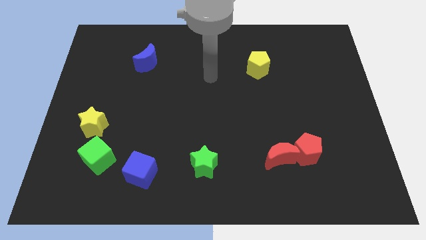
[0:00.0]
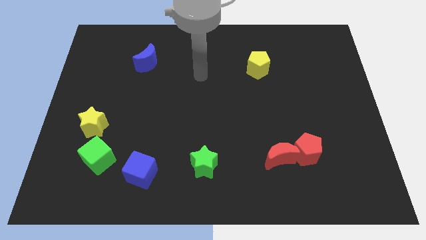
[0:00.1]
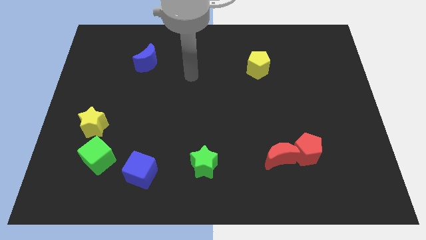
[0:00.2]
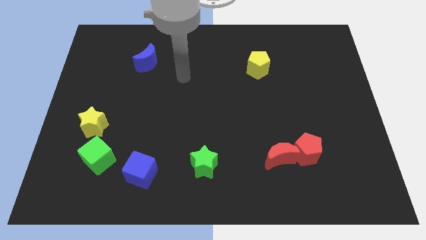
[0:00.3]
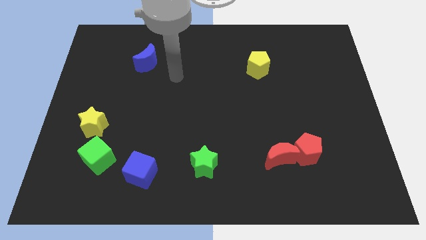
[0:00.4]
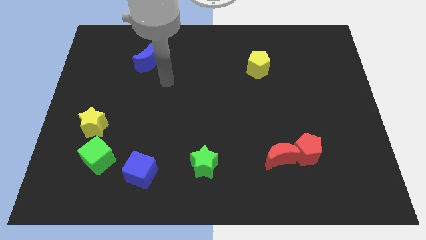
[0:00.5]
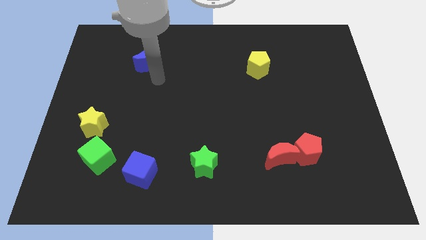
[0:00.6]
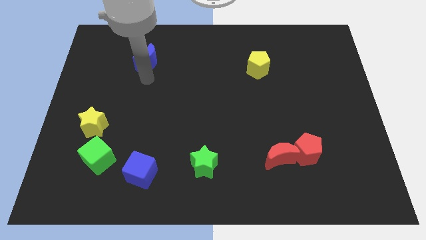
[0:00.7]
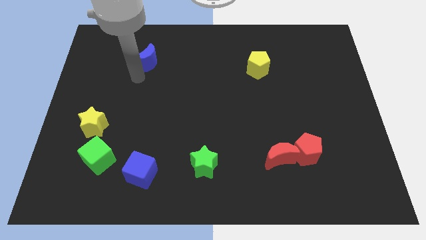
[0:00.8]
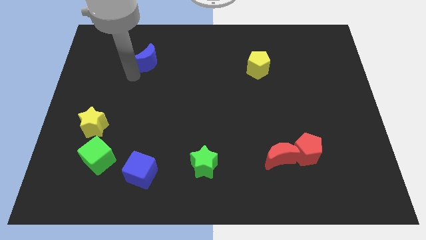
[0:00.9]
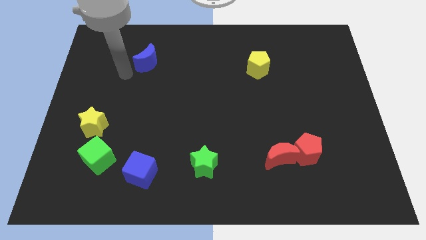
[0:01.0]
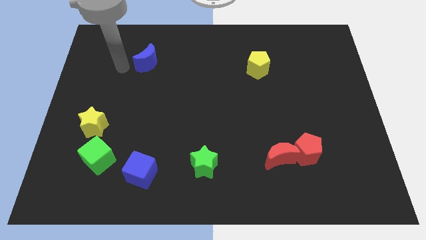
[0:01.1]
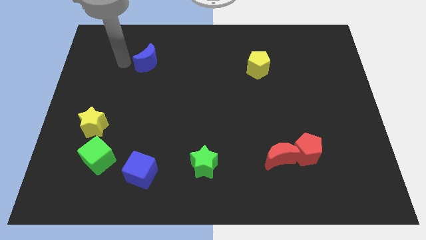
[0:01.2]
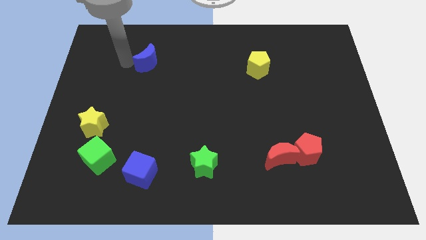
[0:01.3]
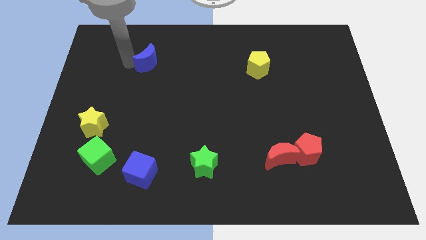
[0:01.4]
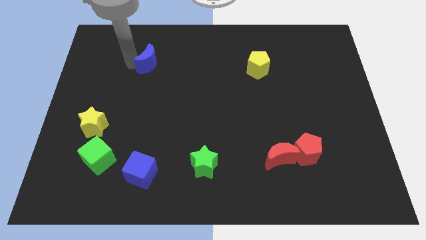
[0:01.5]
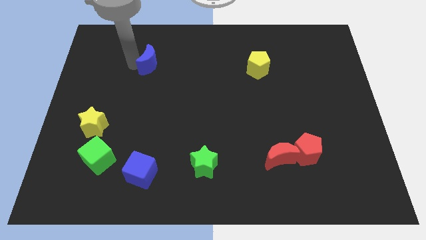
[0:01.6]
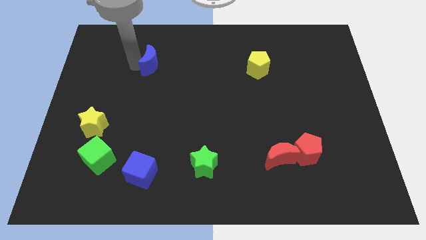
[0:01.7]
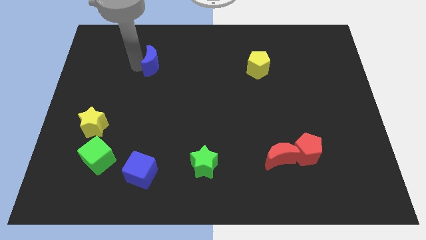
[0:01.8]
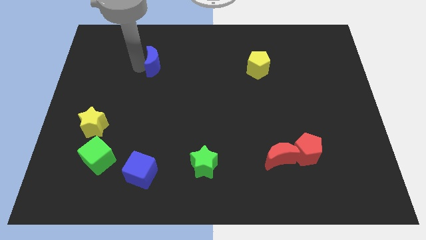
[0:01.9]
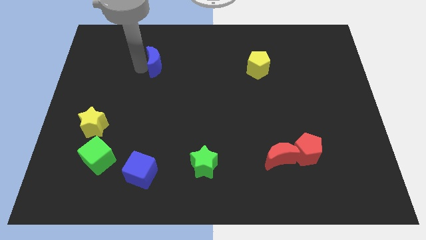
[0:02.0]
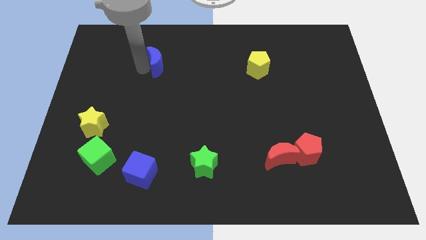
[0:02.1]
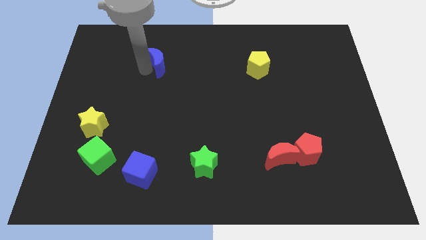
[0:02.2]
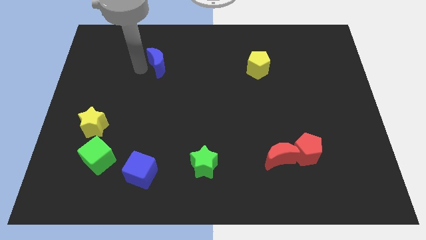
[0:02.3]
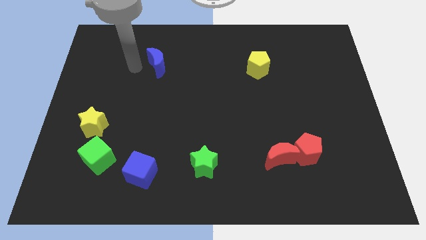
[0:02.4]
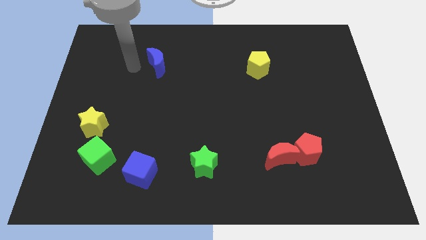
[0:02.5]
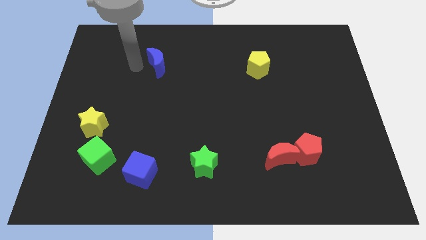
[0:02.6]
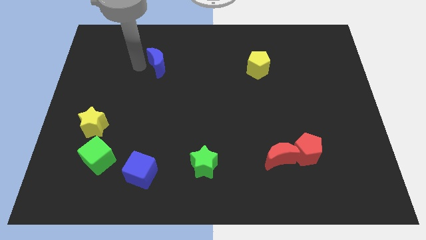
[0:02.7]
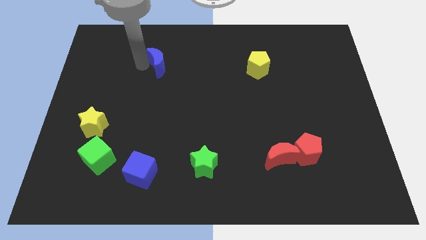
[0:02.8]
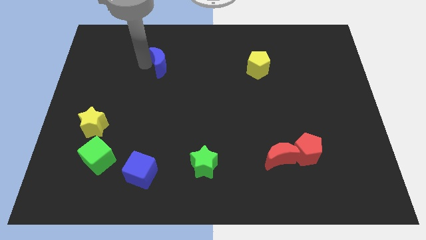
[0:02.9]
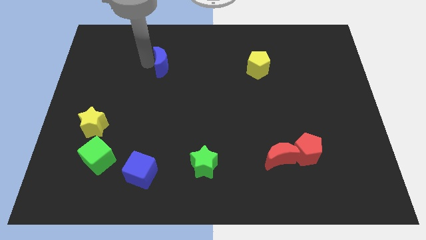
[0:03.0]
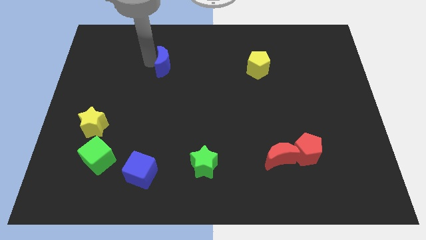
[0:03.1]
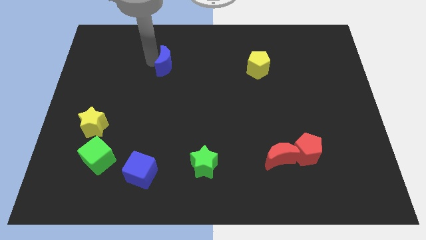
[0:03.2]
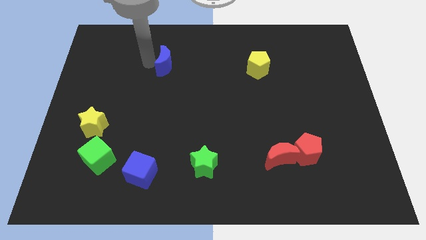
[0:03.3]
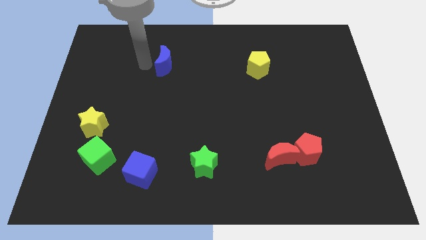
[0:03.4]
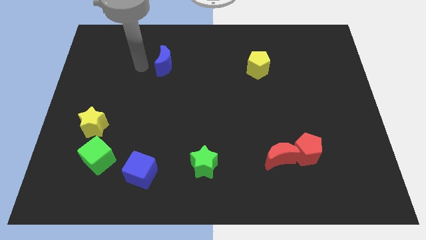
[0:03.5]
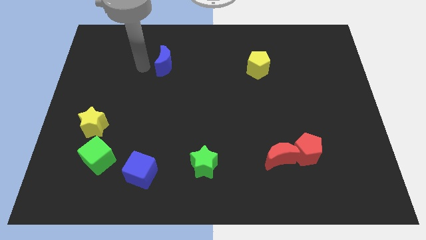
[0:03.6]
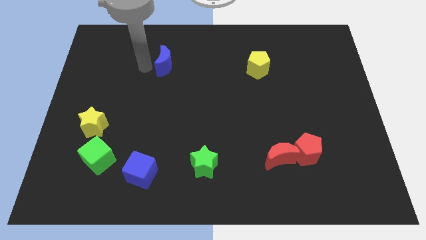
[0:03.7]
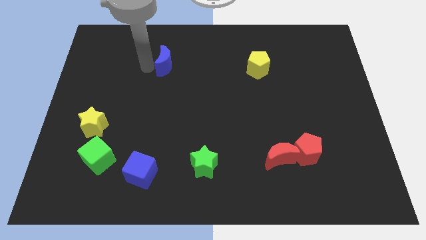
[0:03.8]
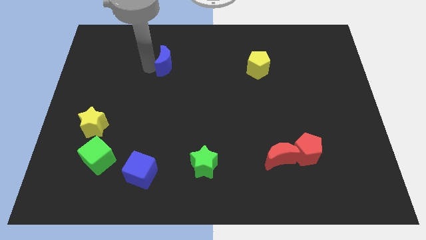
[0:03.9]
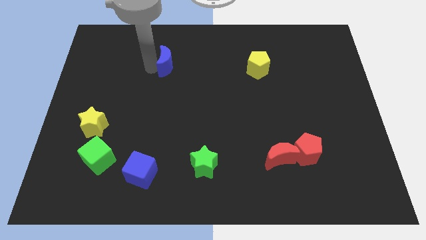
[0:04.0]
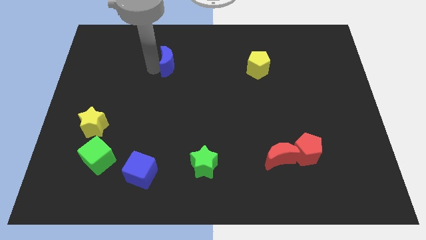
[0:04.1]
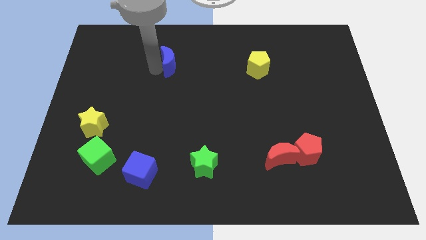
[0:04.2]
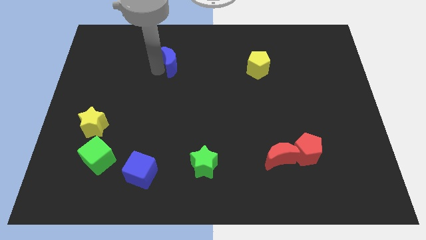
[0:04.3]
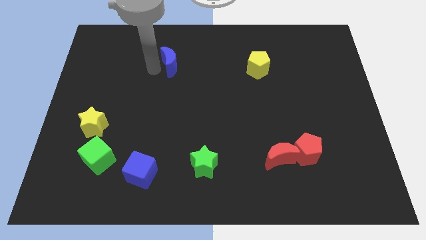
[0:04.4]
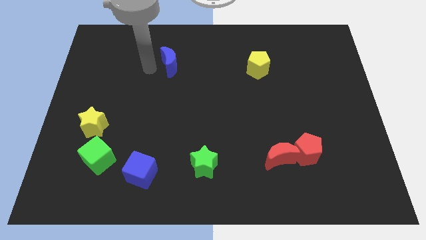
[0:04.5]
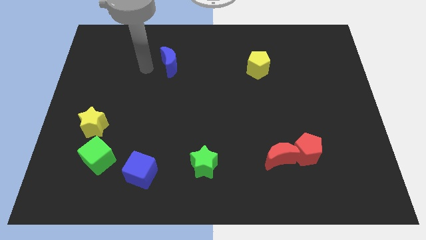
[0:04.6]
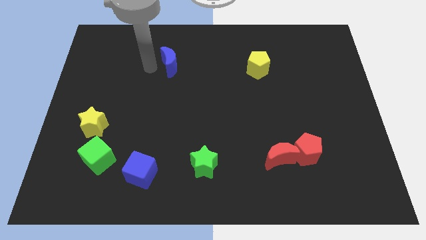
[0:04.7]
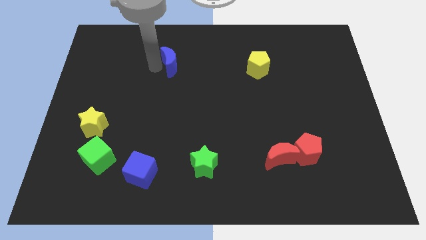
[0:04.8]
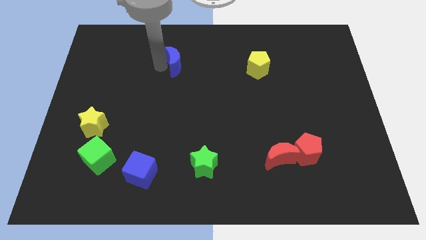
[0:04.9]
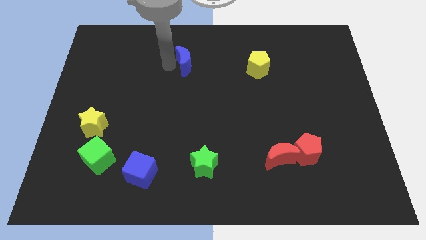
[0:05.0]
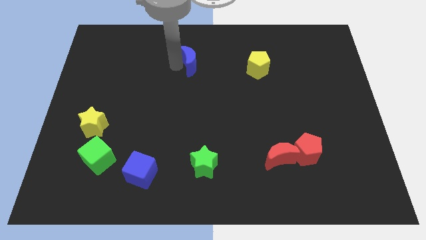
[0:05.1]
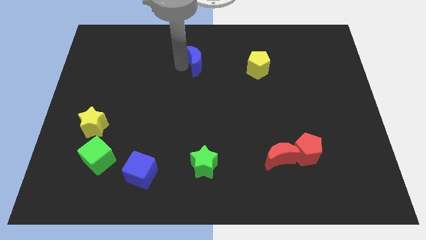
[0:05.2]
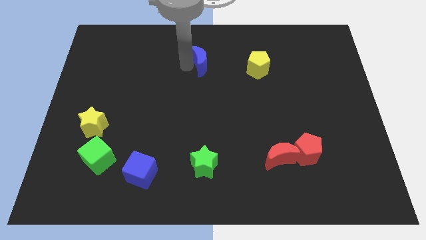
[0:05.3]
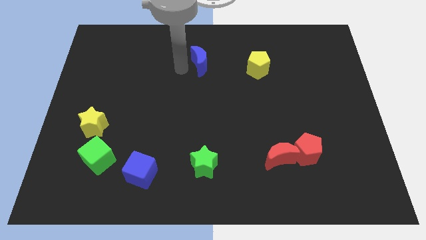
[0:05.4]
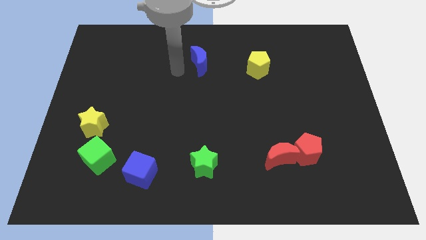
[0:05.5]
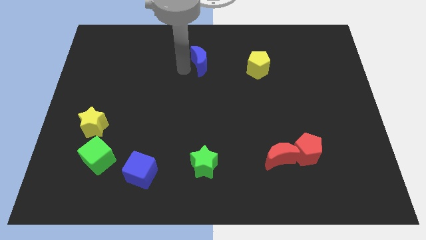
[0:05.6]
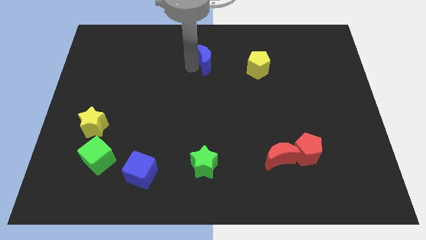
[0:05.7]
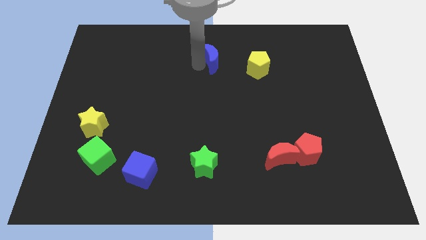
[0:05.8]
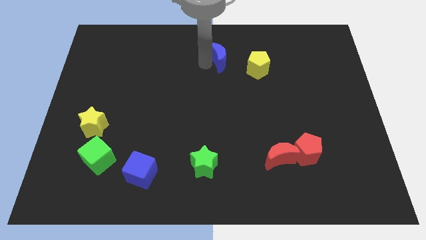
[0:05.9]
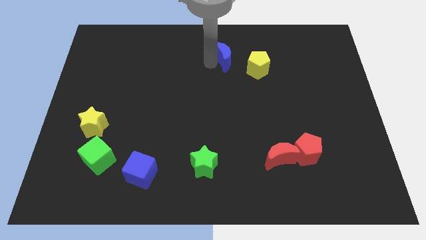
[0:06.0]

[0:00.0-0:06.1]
move the blue moon to the right

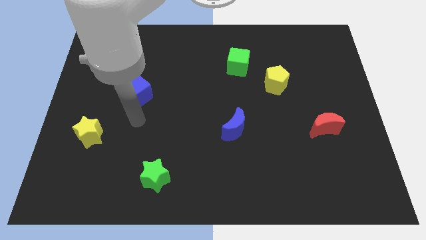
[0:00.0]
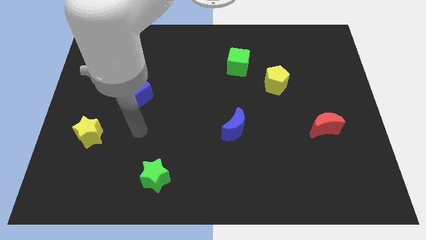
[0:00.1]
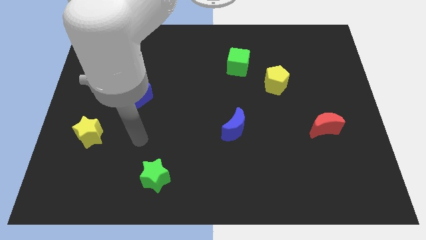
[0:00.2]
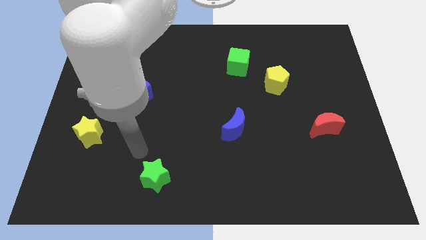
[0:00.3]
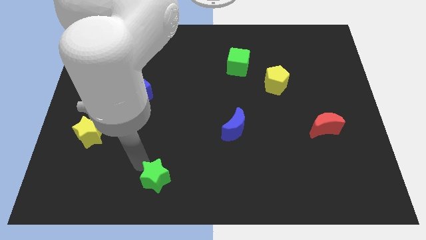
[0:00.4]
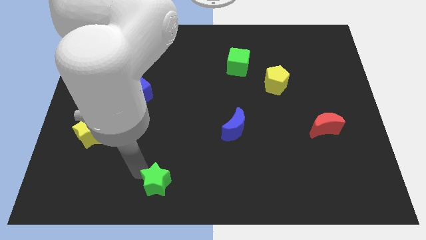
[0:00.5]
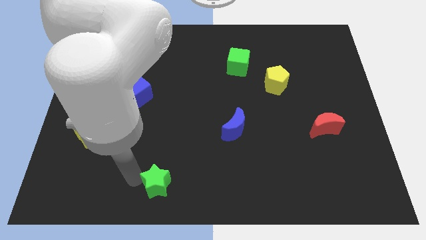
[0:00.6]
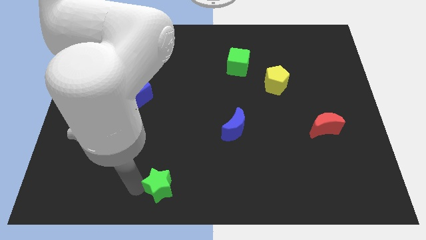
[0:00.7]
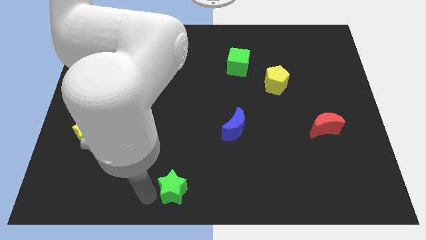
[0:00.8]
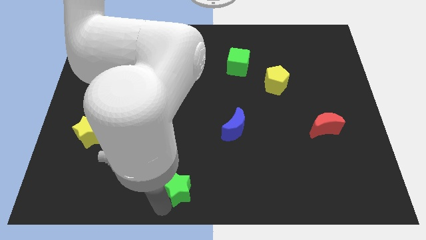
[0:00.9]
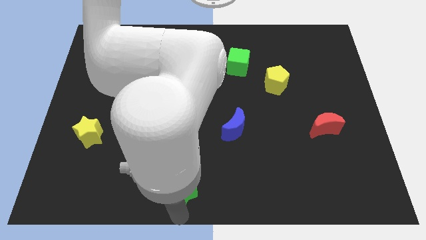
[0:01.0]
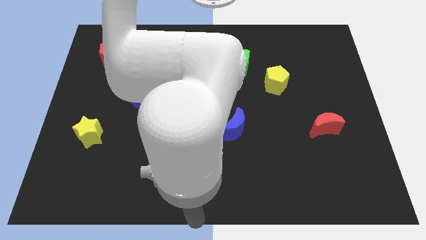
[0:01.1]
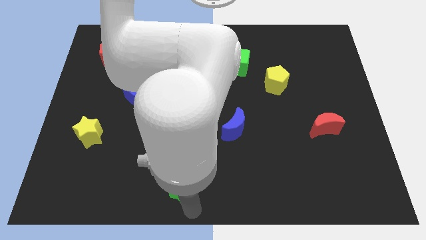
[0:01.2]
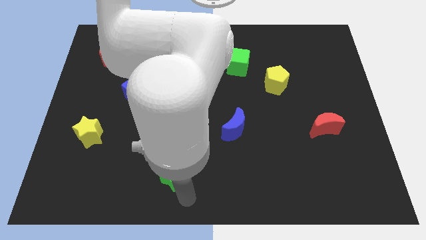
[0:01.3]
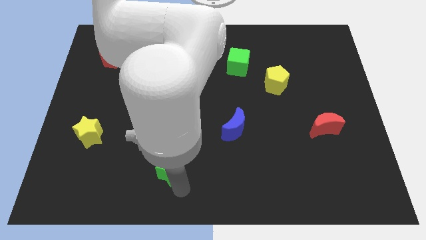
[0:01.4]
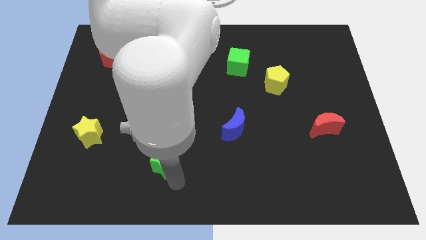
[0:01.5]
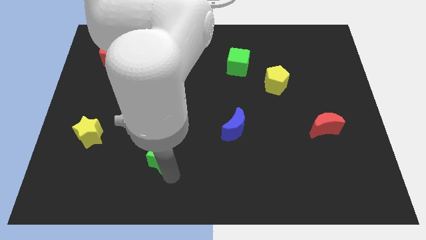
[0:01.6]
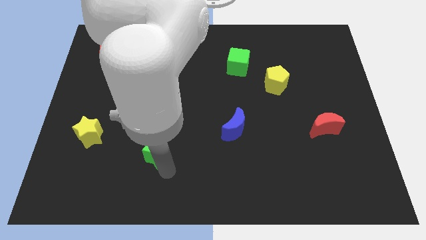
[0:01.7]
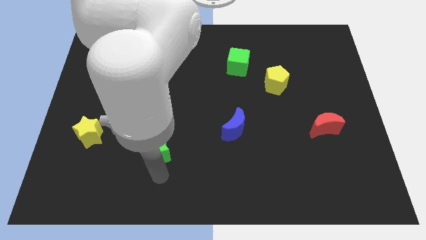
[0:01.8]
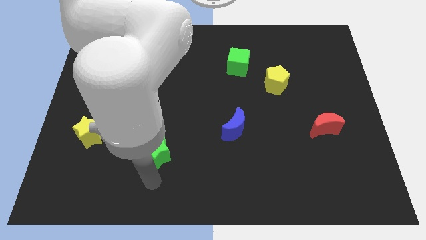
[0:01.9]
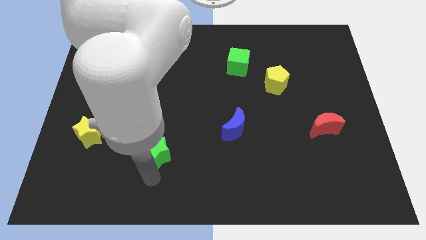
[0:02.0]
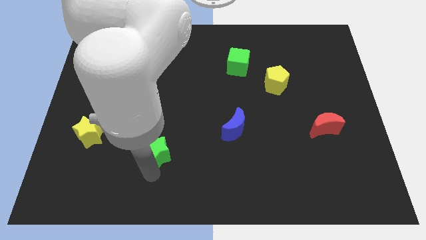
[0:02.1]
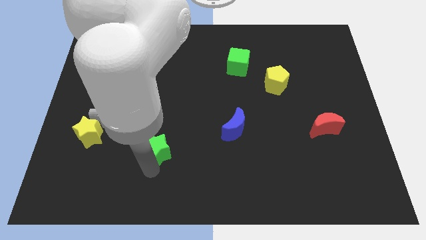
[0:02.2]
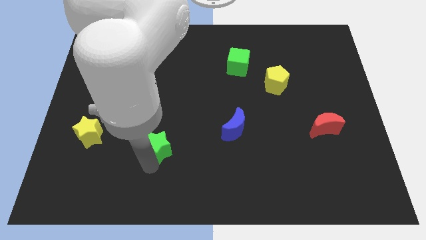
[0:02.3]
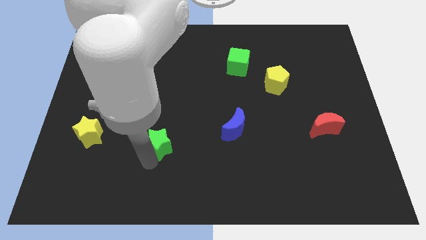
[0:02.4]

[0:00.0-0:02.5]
slightly push the green star up
